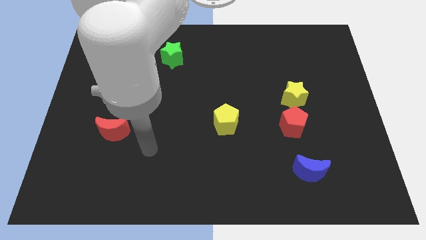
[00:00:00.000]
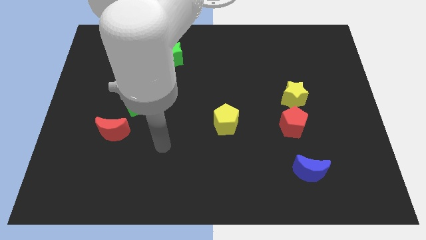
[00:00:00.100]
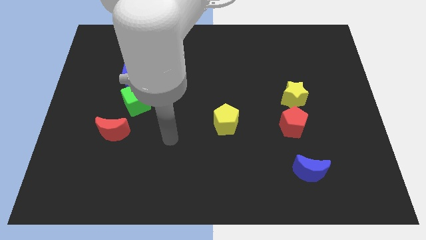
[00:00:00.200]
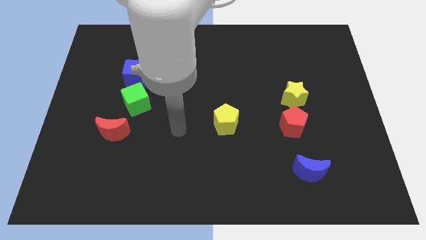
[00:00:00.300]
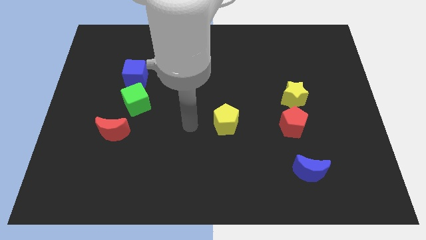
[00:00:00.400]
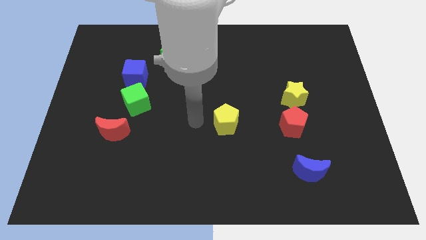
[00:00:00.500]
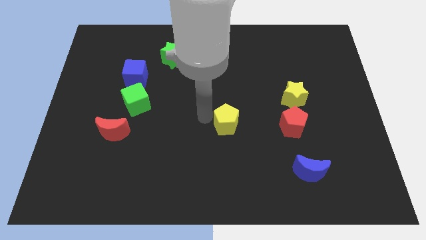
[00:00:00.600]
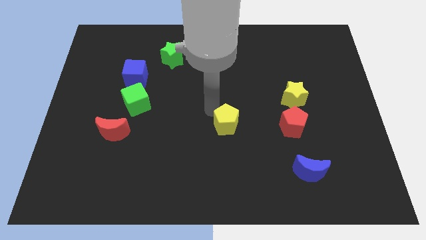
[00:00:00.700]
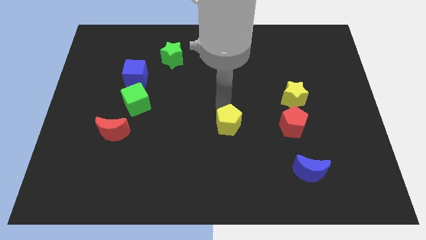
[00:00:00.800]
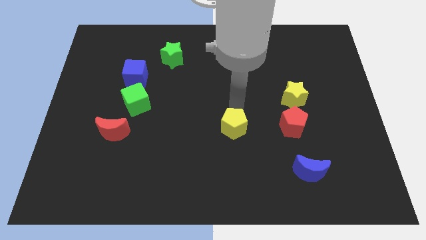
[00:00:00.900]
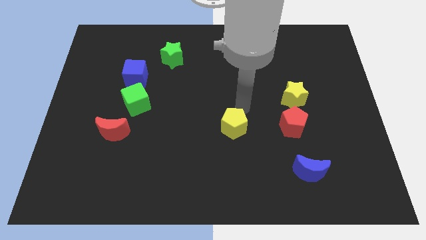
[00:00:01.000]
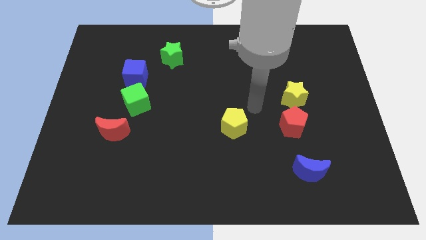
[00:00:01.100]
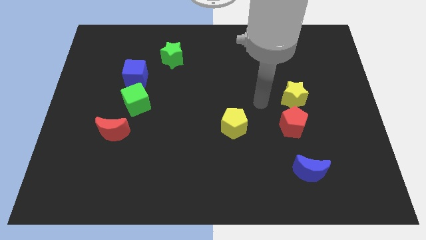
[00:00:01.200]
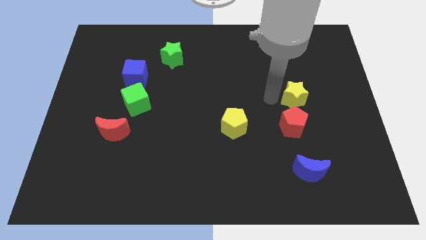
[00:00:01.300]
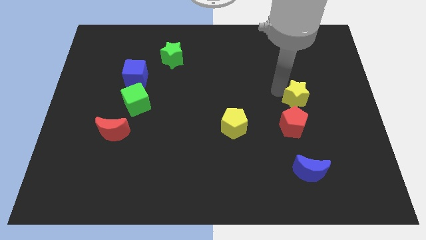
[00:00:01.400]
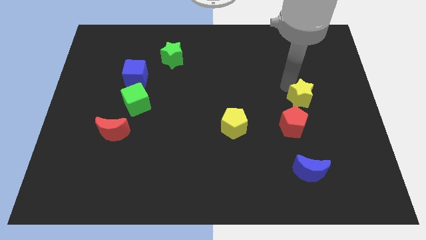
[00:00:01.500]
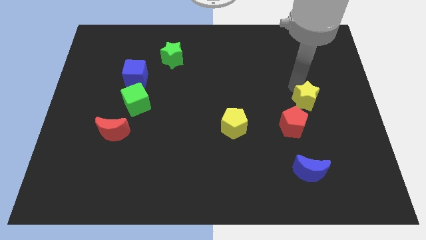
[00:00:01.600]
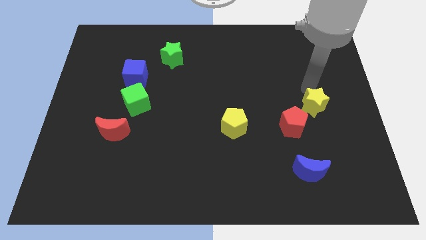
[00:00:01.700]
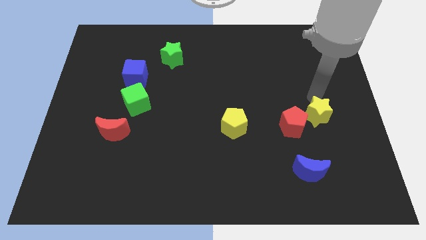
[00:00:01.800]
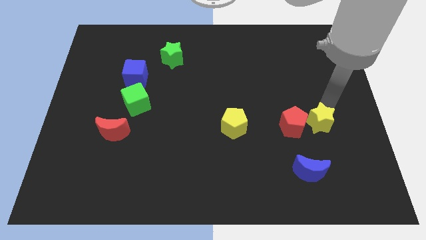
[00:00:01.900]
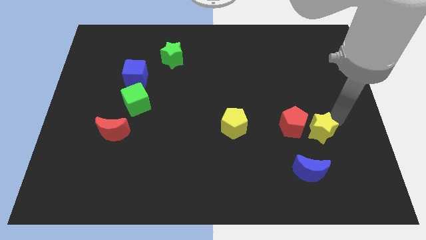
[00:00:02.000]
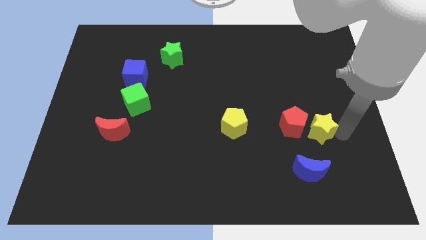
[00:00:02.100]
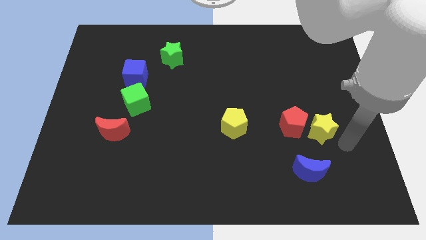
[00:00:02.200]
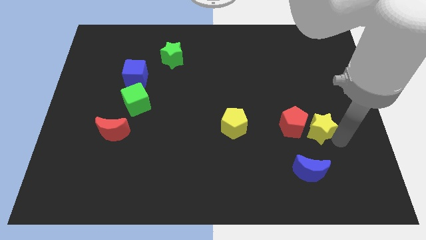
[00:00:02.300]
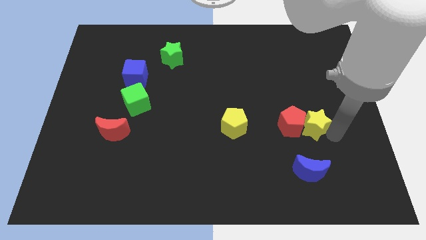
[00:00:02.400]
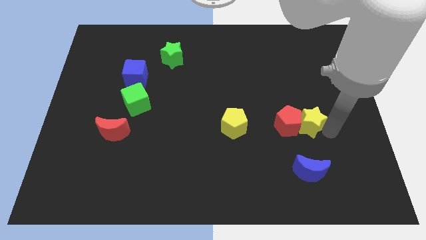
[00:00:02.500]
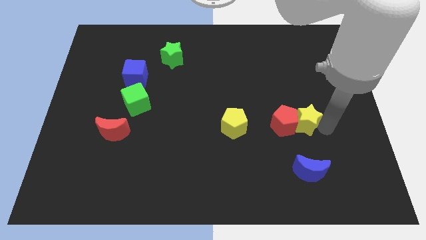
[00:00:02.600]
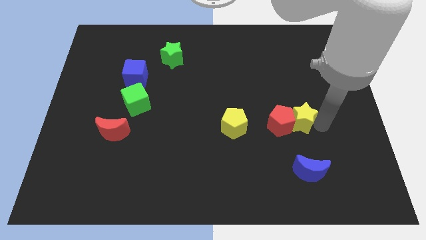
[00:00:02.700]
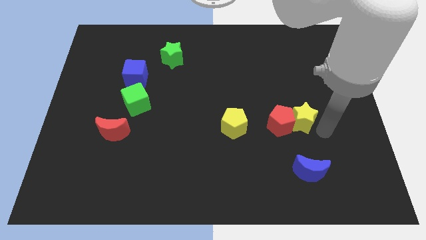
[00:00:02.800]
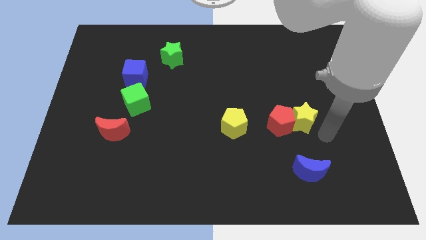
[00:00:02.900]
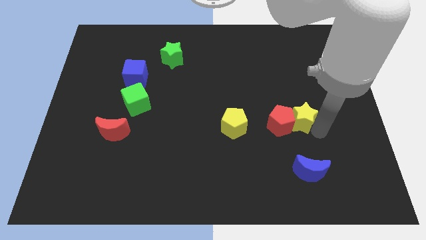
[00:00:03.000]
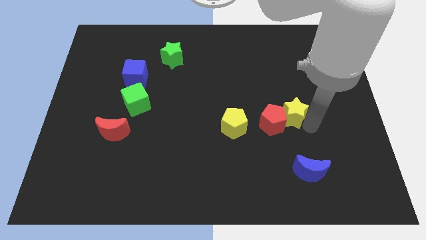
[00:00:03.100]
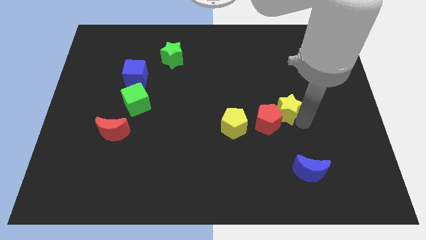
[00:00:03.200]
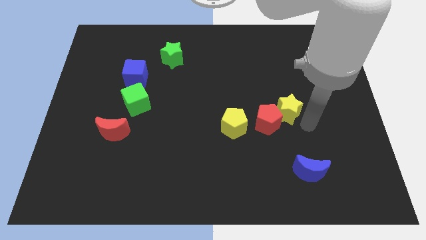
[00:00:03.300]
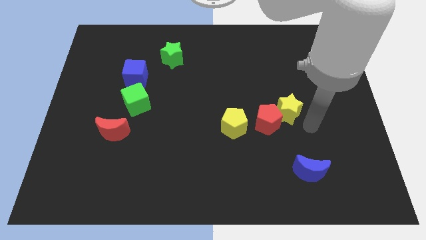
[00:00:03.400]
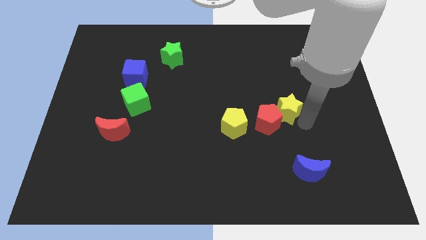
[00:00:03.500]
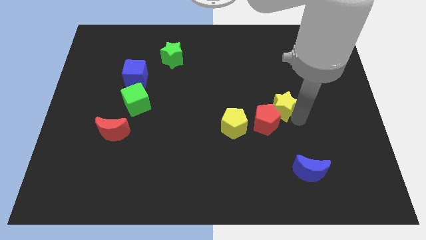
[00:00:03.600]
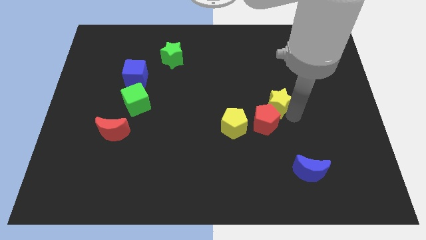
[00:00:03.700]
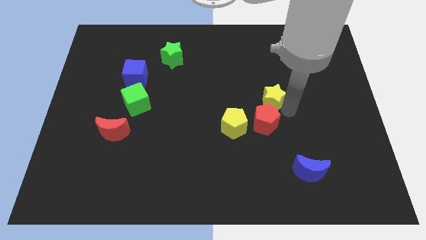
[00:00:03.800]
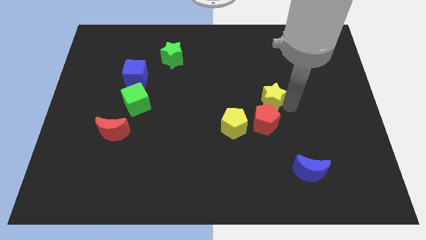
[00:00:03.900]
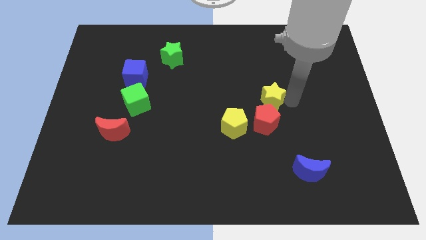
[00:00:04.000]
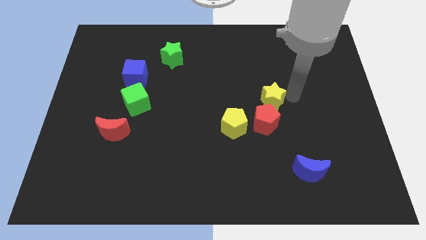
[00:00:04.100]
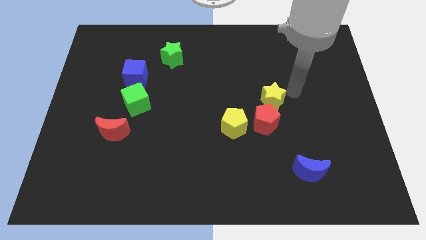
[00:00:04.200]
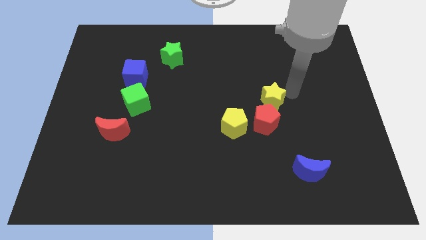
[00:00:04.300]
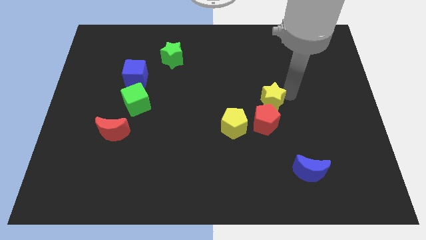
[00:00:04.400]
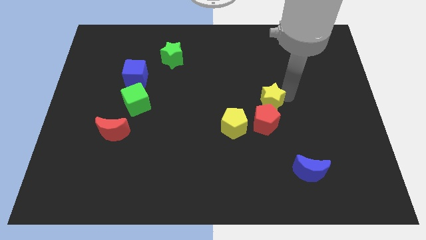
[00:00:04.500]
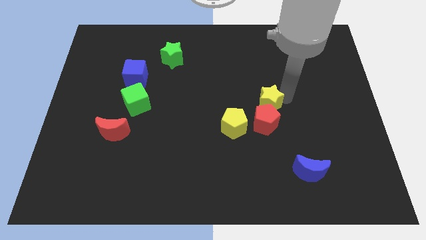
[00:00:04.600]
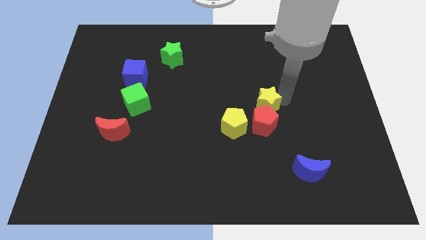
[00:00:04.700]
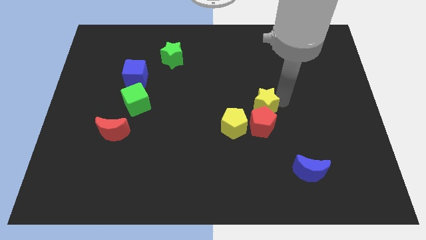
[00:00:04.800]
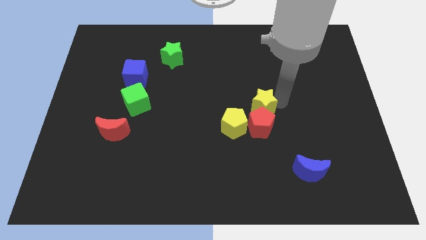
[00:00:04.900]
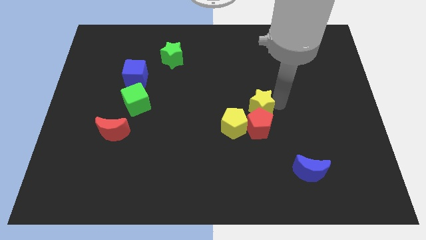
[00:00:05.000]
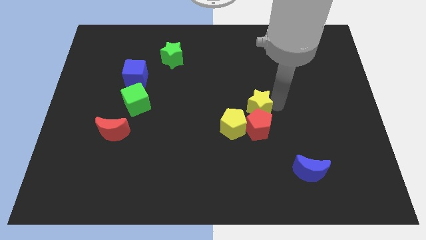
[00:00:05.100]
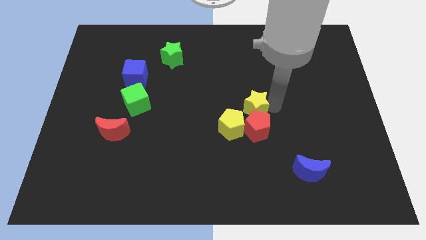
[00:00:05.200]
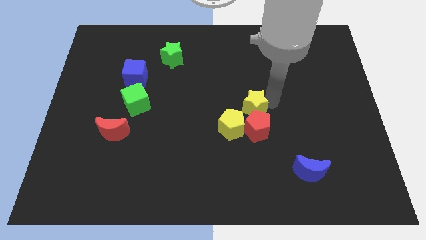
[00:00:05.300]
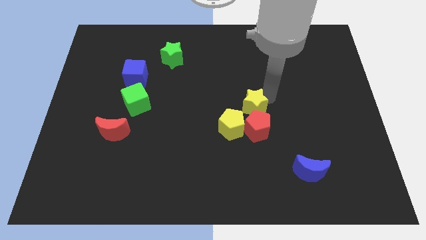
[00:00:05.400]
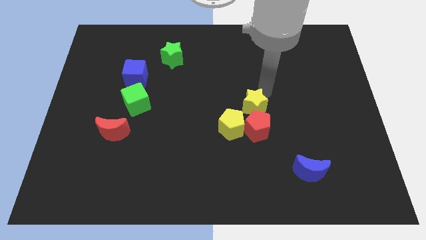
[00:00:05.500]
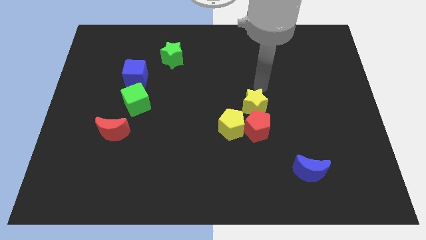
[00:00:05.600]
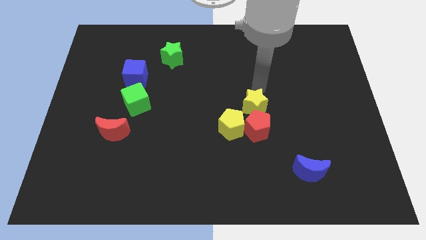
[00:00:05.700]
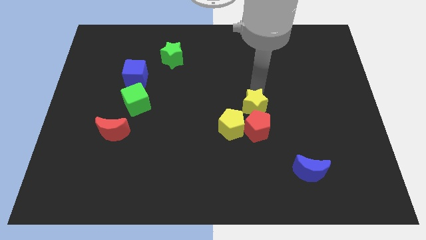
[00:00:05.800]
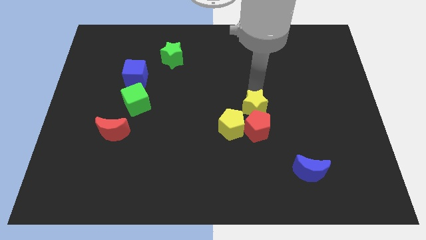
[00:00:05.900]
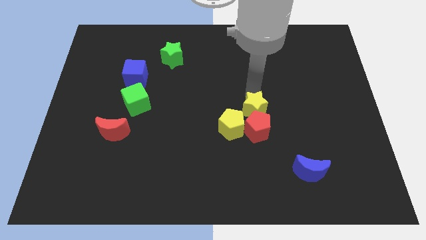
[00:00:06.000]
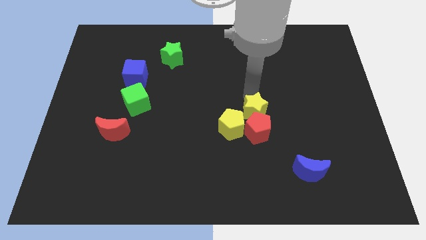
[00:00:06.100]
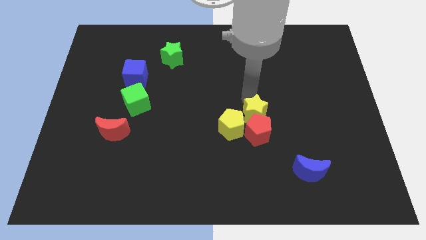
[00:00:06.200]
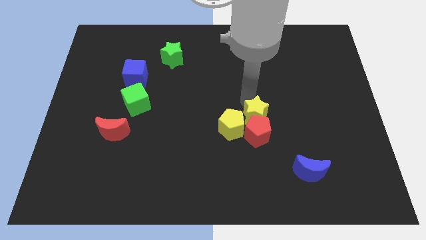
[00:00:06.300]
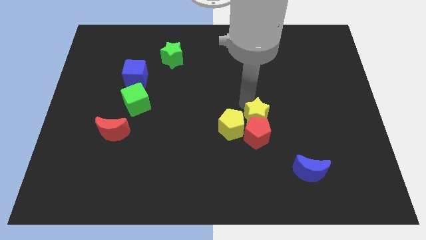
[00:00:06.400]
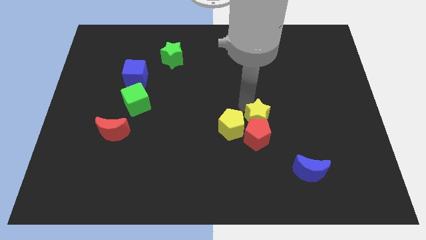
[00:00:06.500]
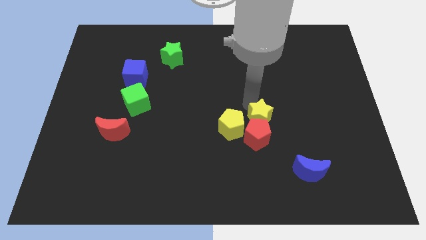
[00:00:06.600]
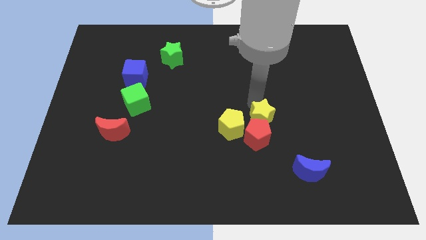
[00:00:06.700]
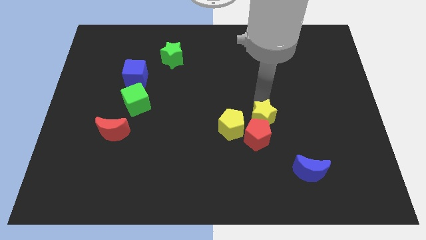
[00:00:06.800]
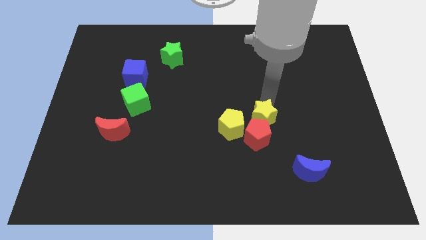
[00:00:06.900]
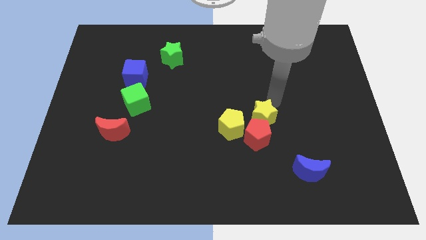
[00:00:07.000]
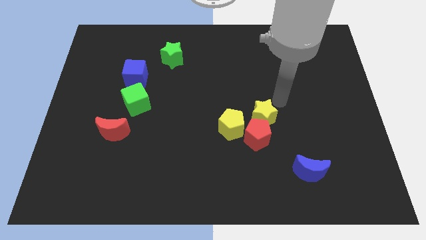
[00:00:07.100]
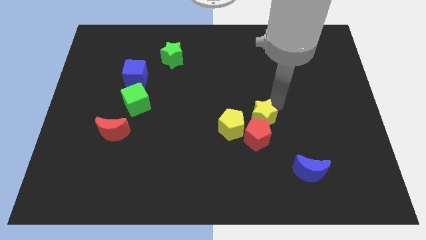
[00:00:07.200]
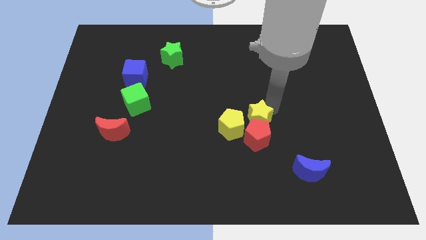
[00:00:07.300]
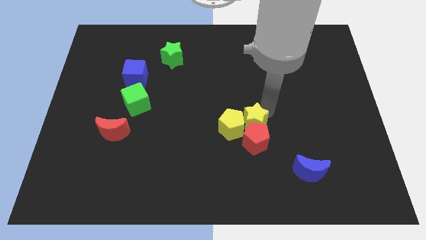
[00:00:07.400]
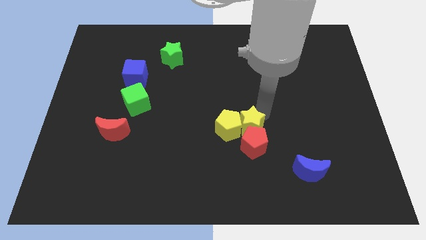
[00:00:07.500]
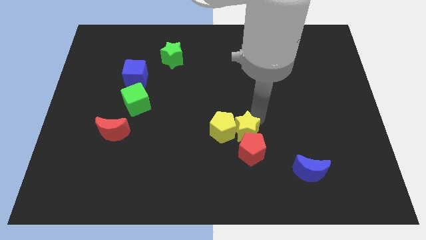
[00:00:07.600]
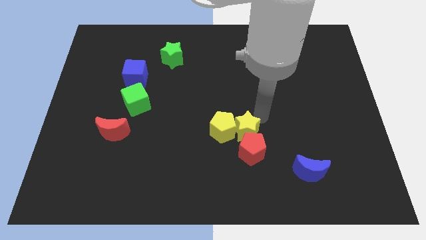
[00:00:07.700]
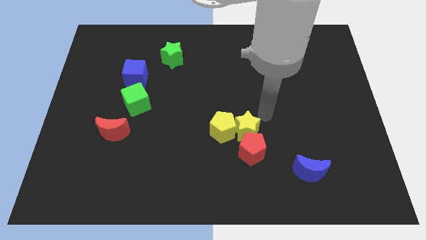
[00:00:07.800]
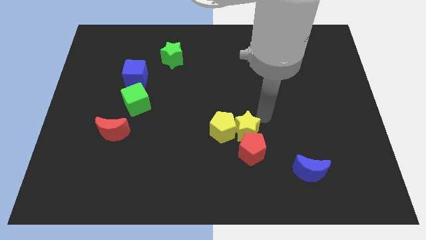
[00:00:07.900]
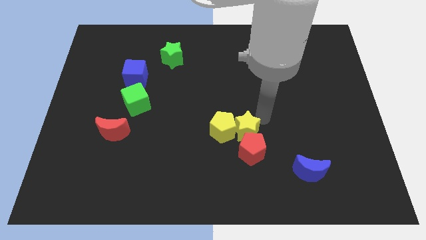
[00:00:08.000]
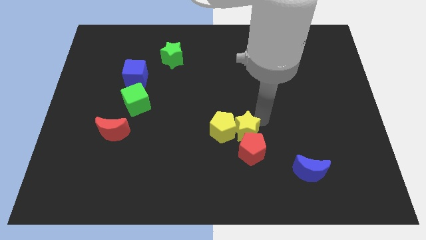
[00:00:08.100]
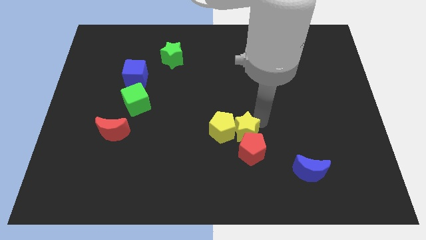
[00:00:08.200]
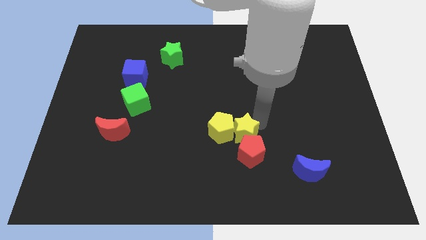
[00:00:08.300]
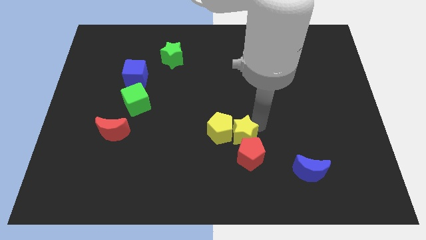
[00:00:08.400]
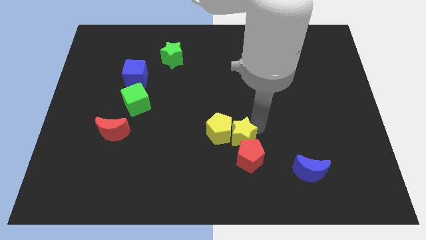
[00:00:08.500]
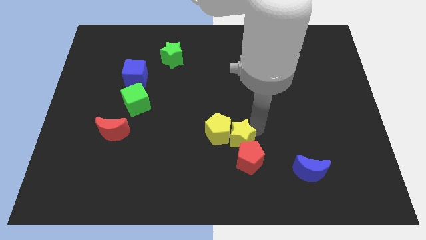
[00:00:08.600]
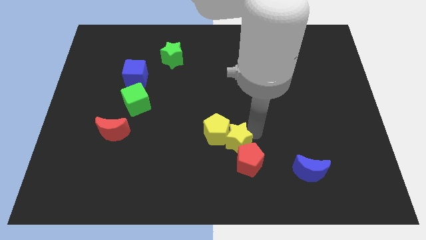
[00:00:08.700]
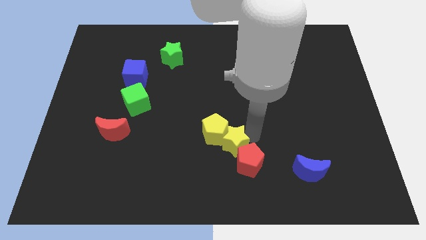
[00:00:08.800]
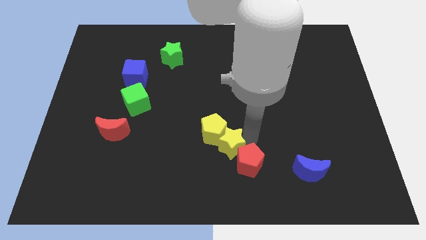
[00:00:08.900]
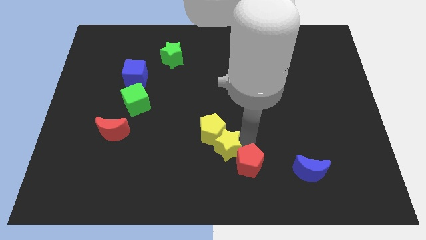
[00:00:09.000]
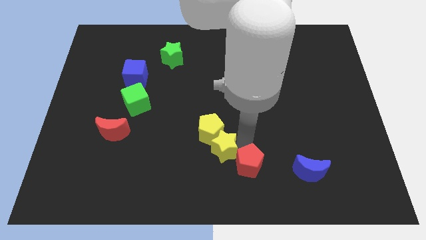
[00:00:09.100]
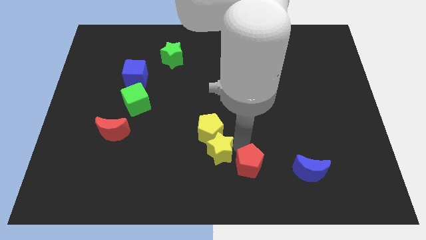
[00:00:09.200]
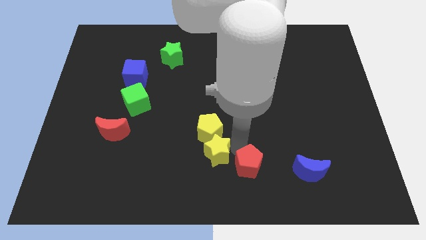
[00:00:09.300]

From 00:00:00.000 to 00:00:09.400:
slide the yellow star diagonally down and to the left of the yellow pentagon
